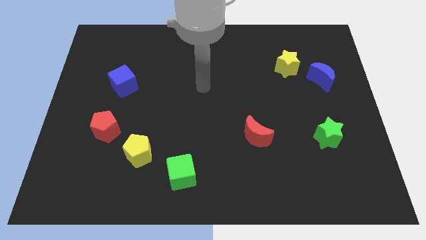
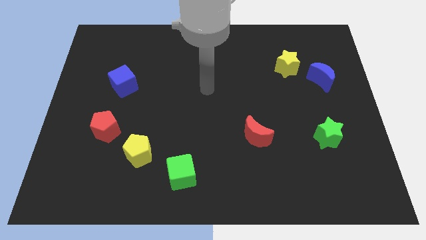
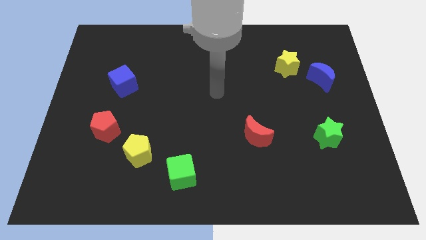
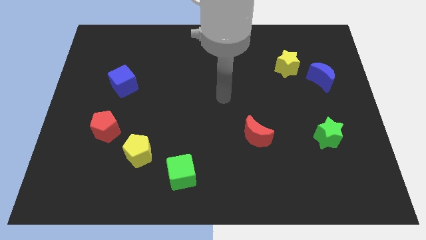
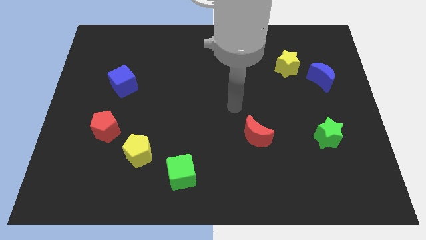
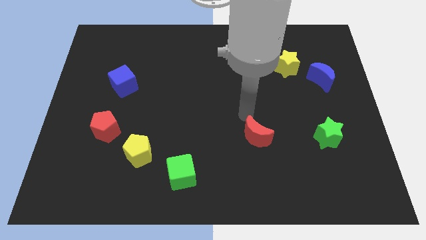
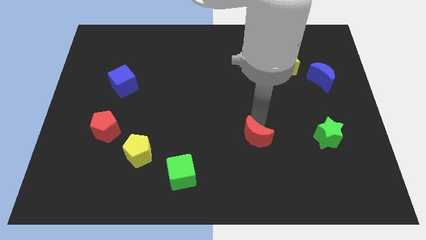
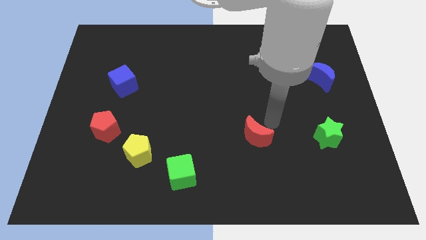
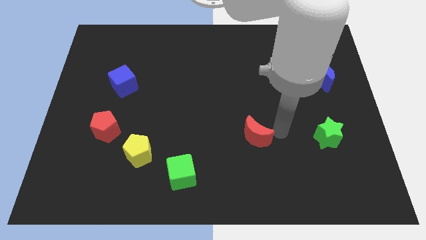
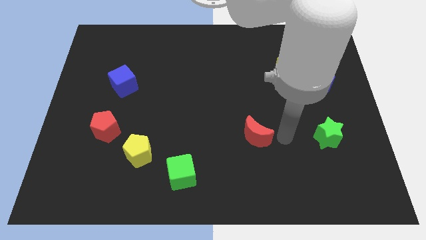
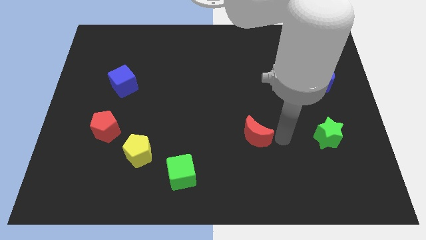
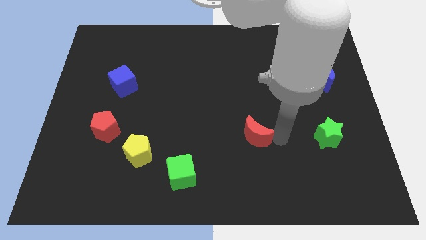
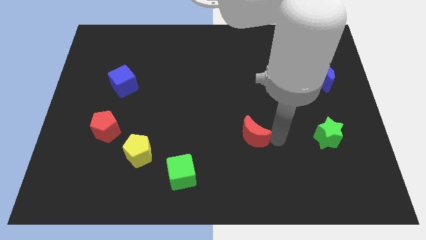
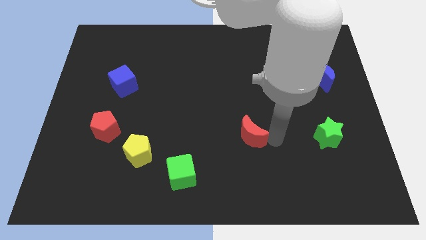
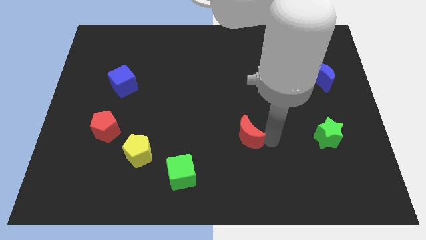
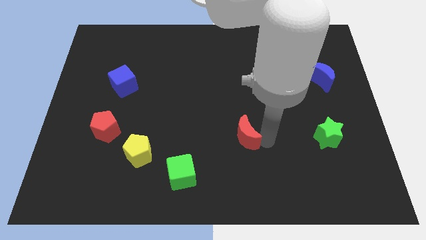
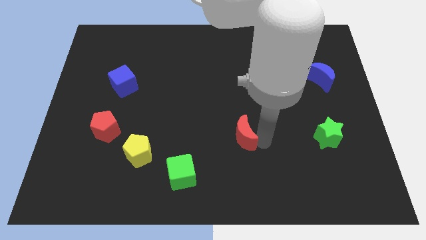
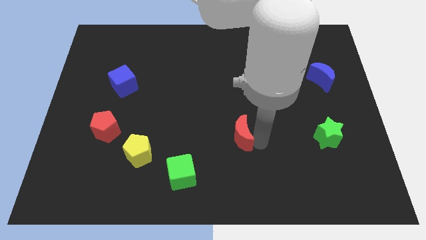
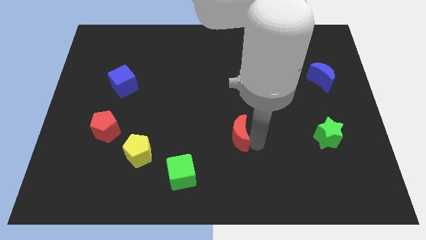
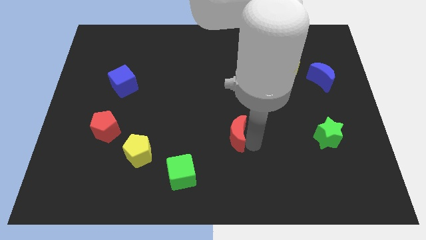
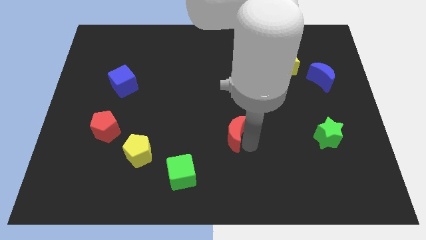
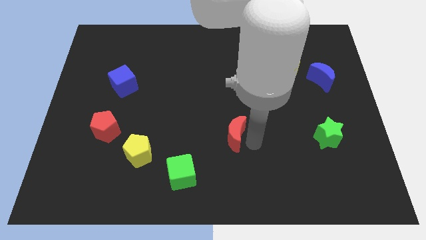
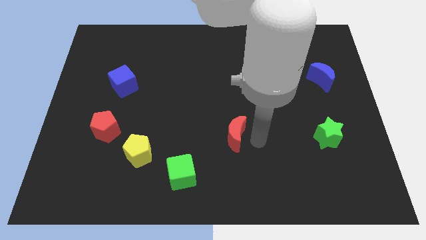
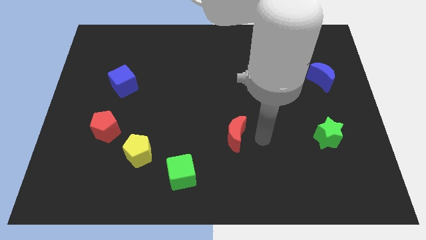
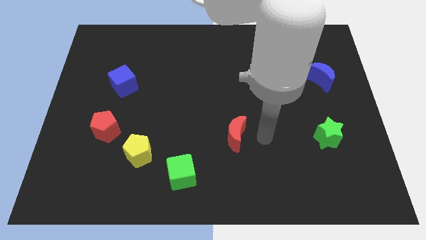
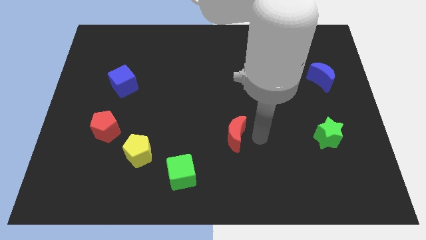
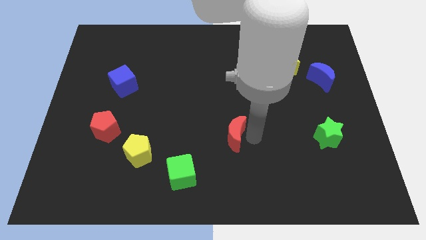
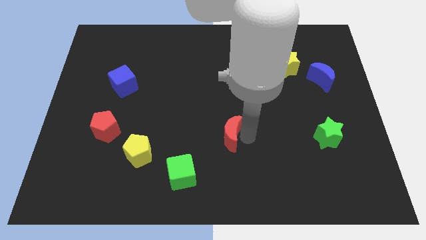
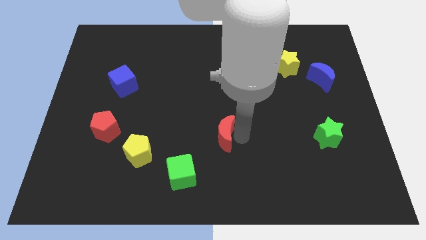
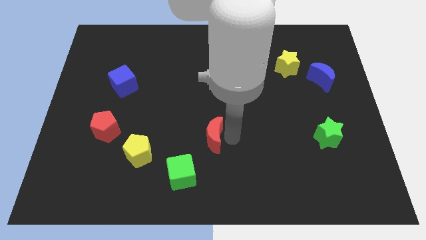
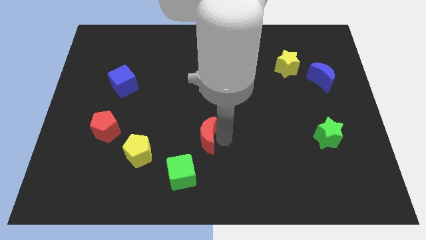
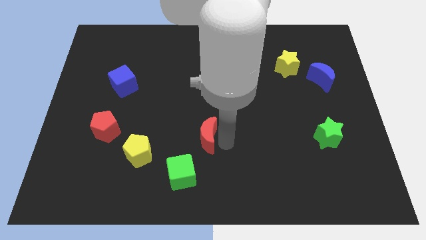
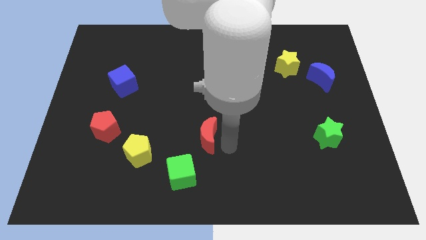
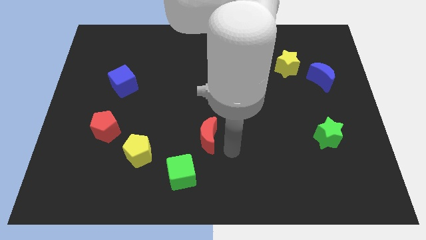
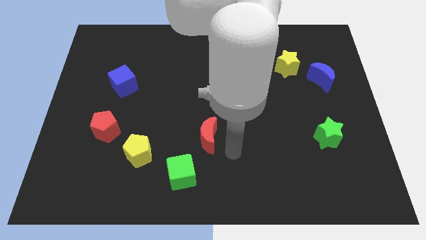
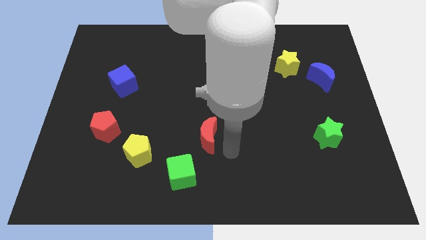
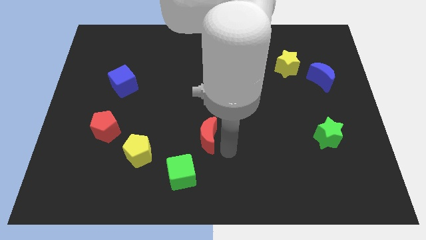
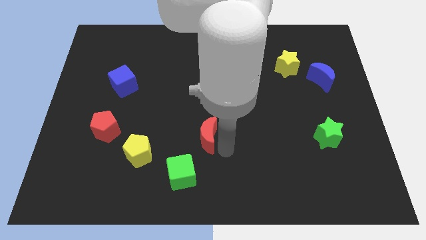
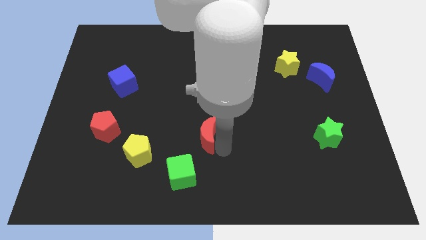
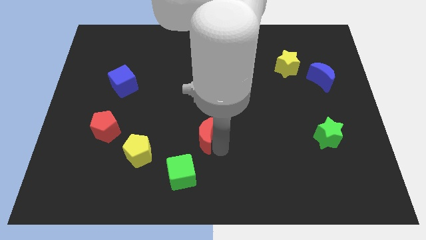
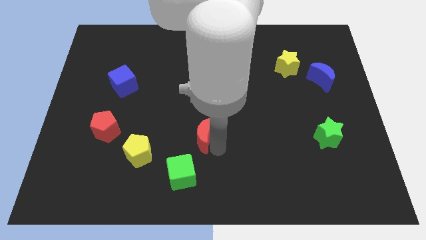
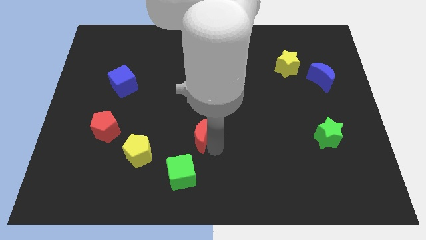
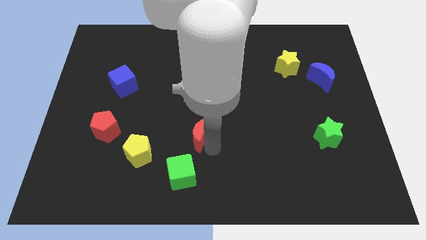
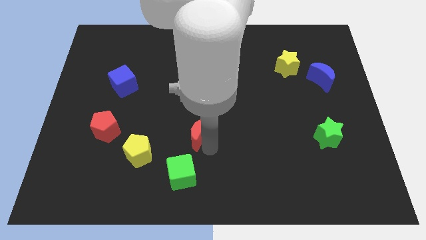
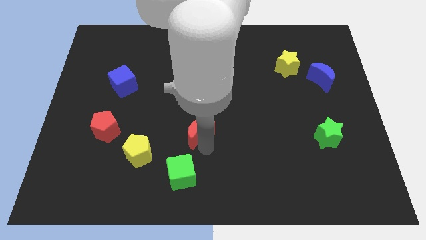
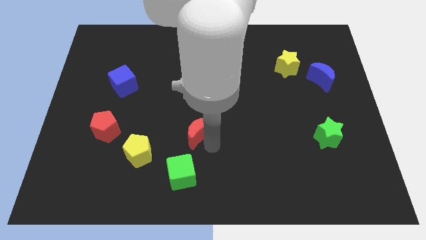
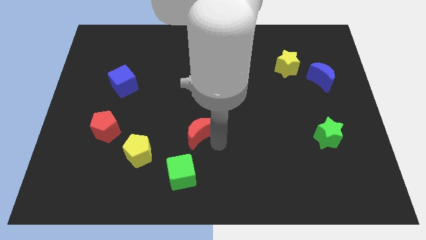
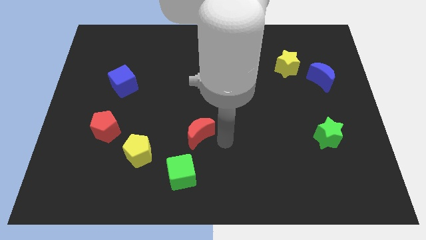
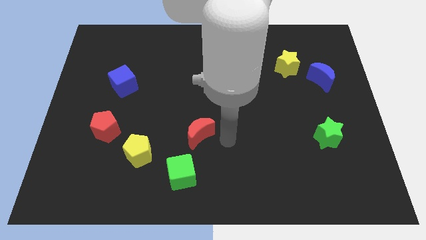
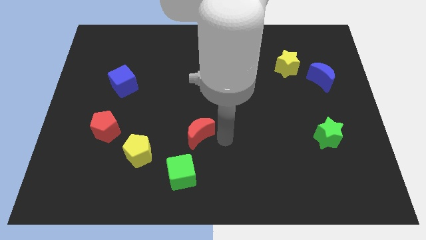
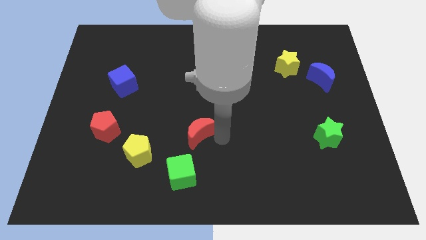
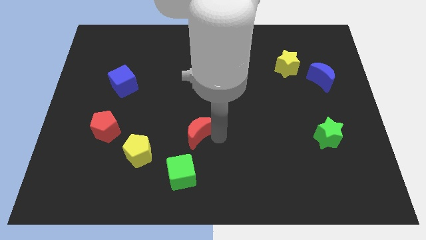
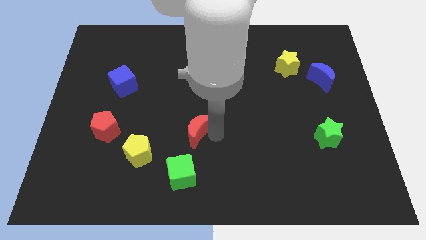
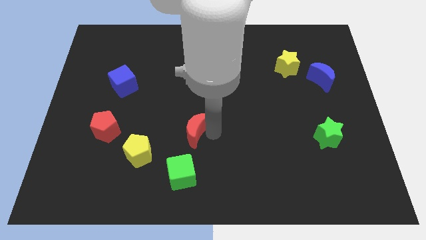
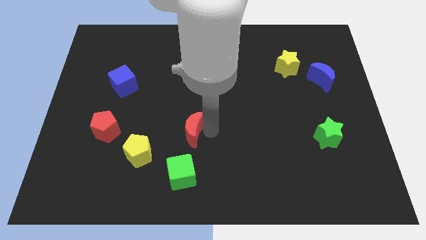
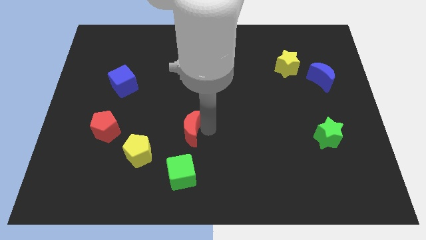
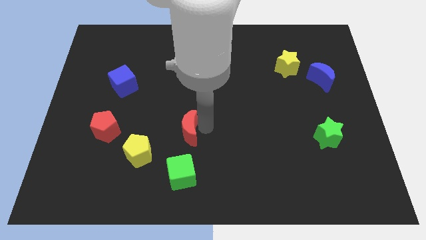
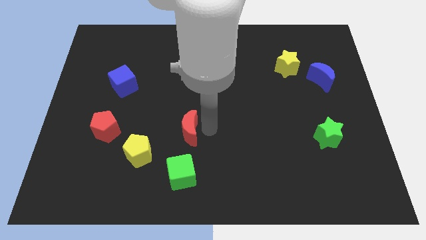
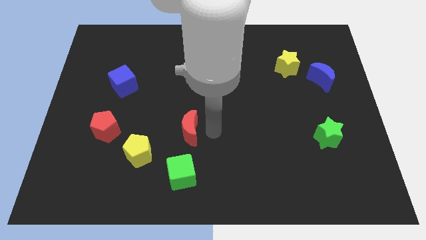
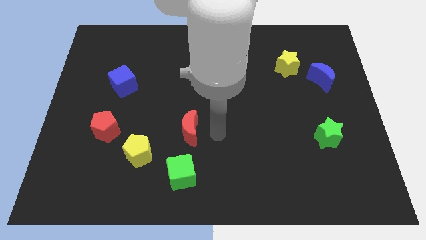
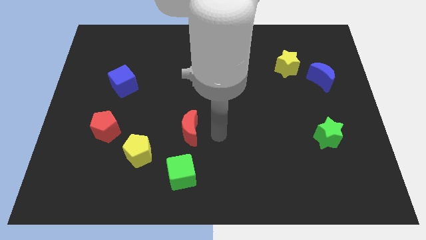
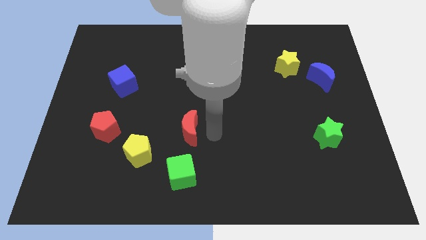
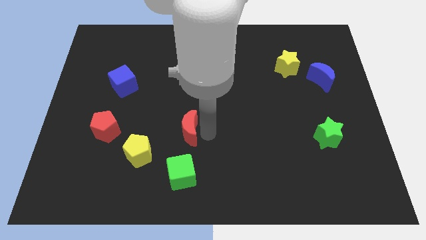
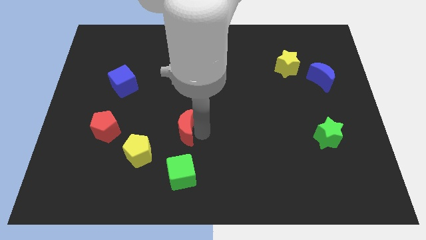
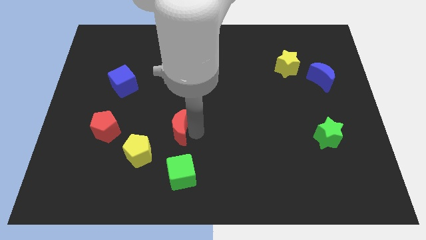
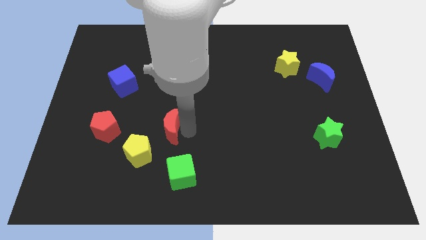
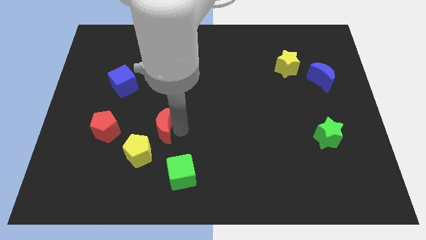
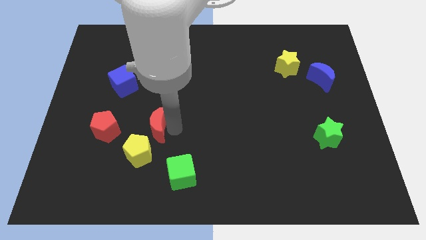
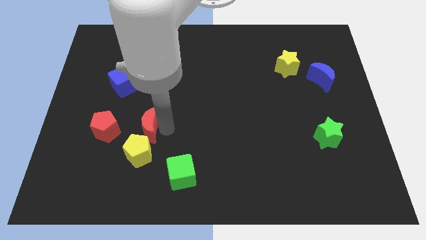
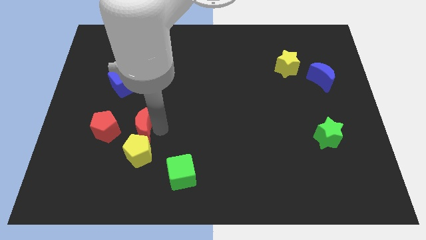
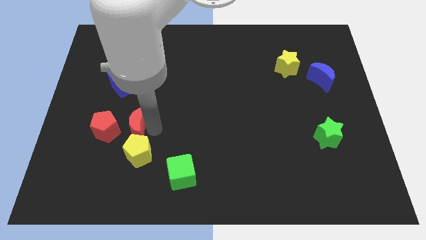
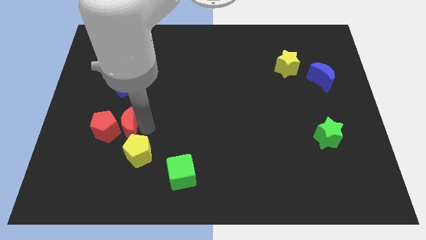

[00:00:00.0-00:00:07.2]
push the red moon next to the red pentagon

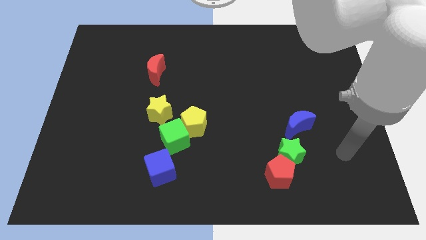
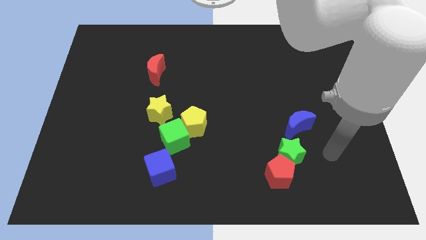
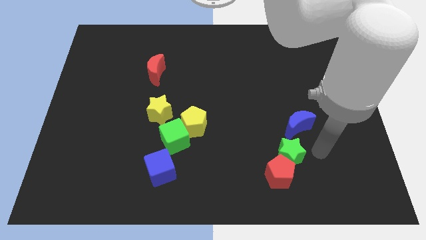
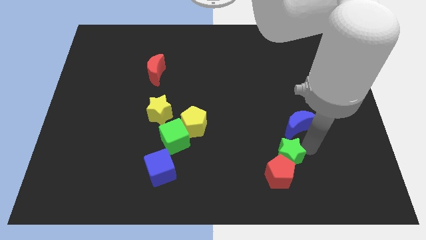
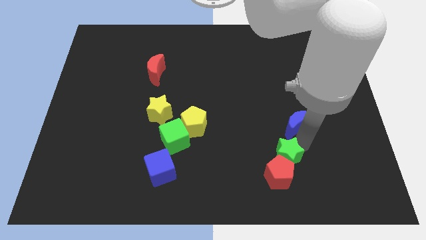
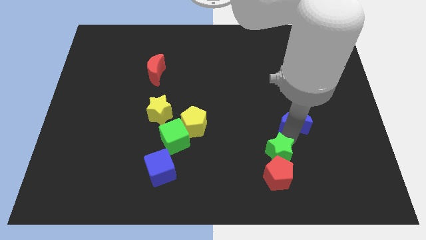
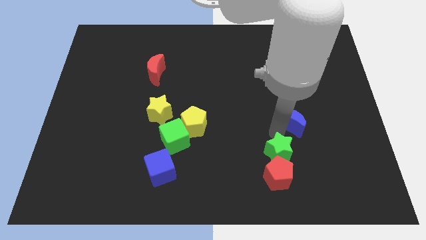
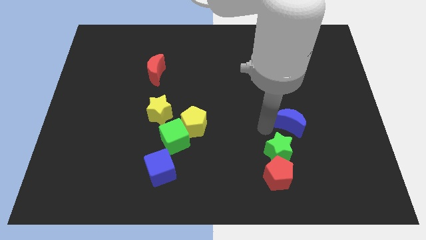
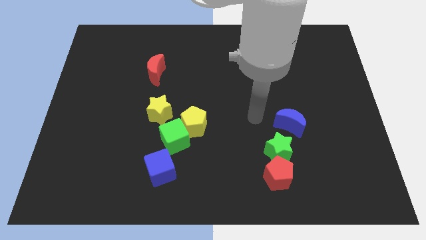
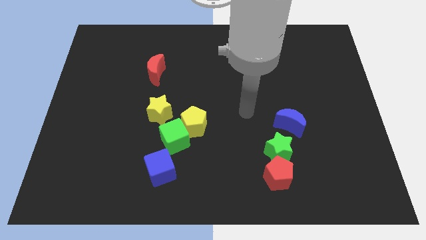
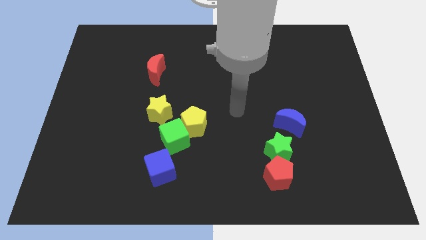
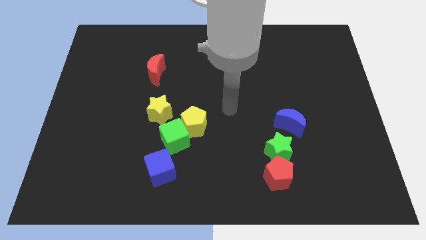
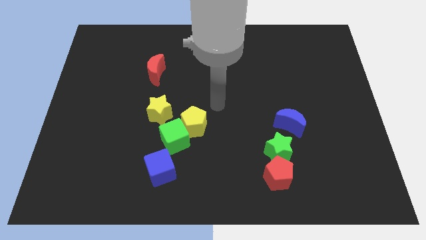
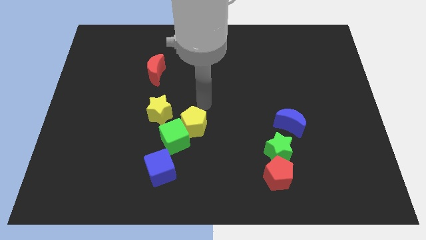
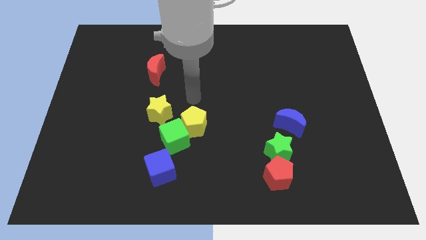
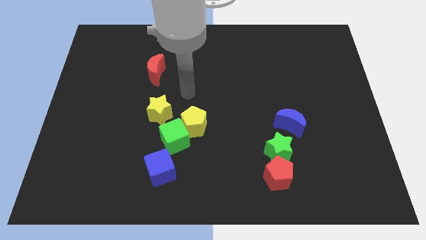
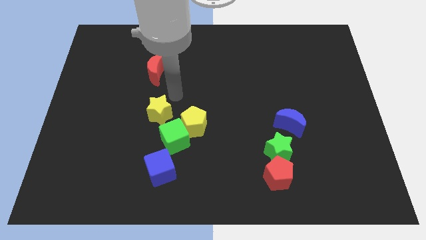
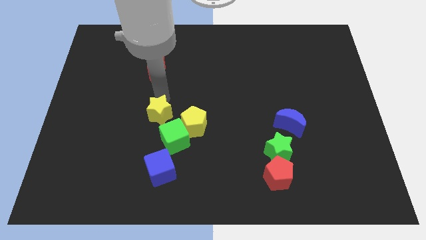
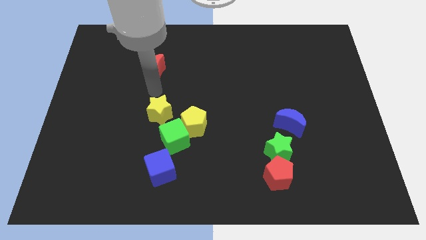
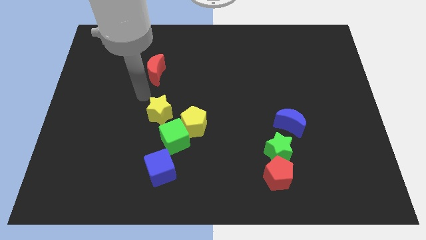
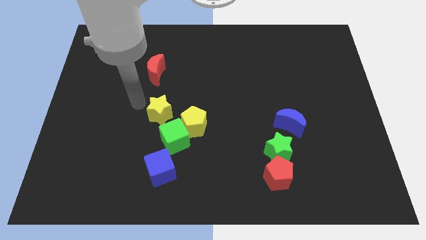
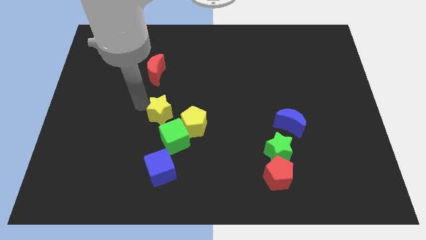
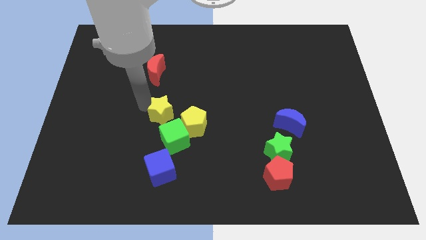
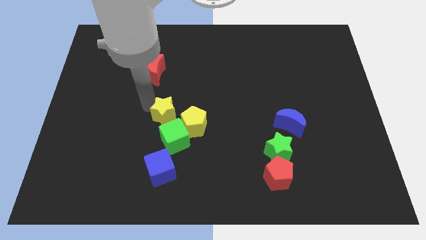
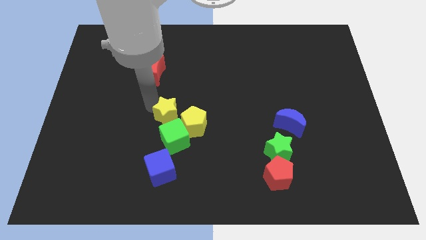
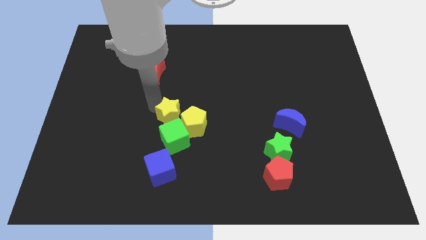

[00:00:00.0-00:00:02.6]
slide the yellow star towards the yellow pentagon
